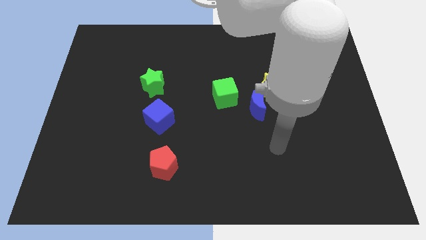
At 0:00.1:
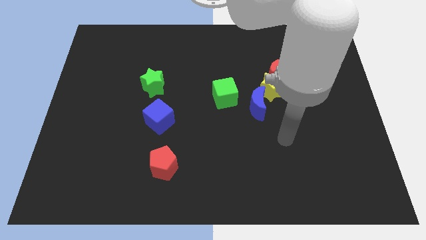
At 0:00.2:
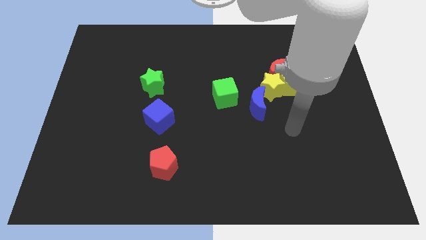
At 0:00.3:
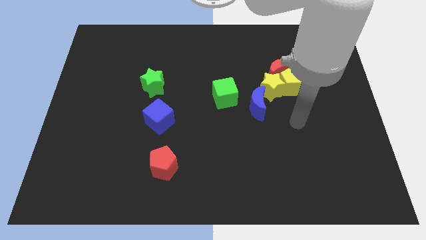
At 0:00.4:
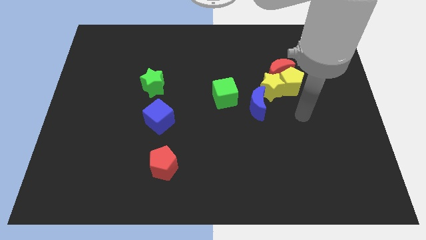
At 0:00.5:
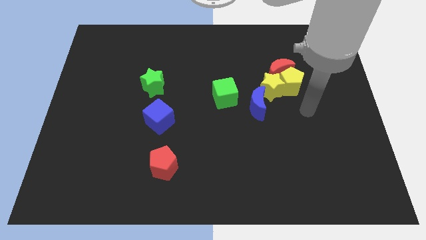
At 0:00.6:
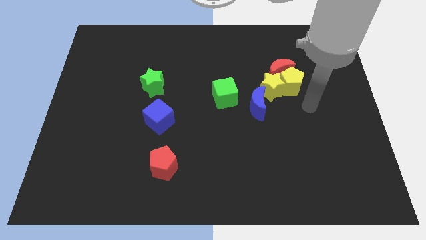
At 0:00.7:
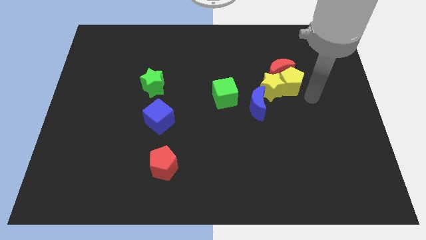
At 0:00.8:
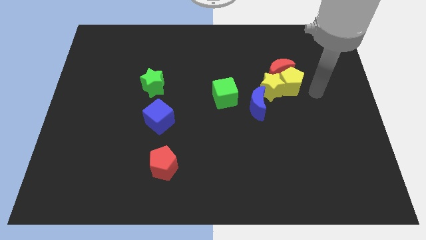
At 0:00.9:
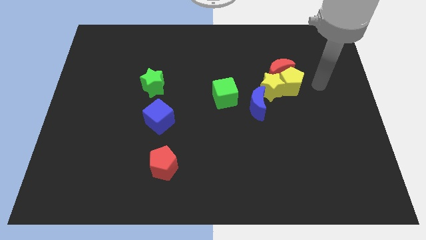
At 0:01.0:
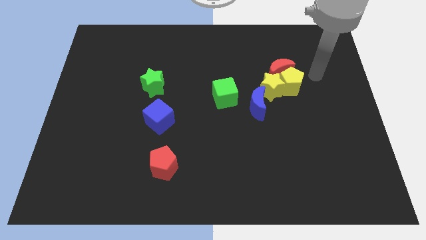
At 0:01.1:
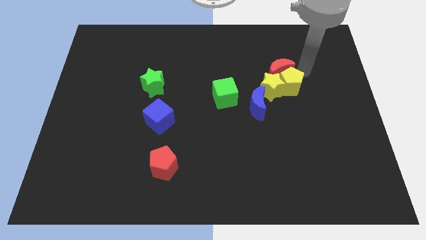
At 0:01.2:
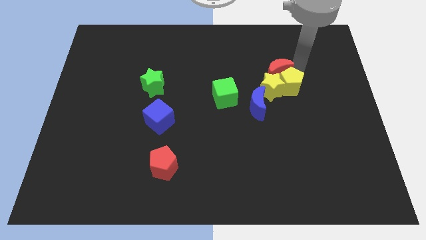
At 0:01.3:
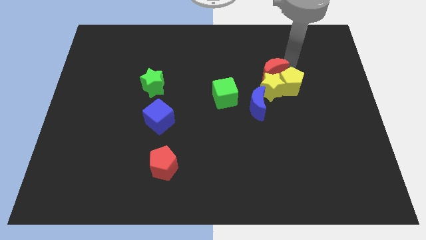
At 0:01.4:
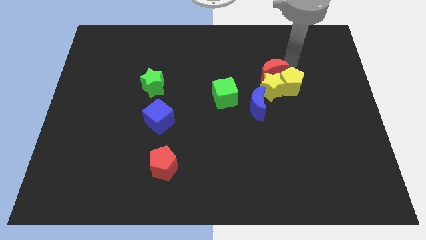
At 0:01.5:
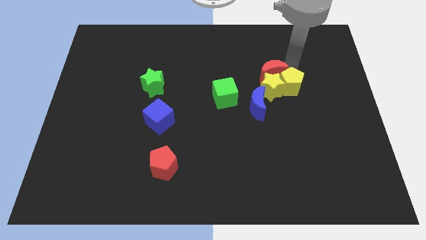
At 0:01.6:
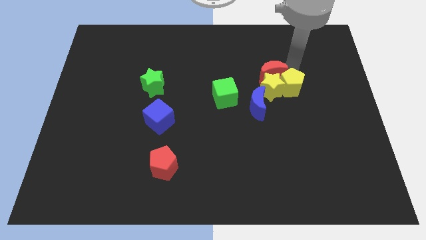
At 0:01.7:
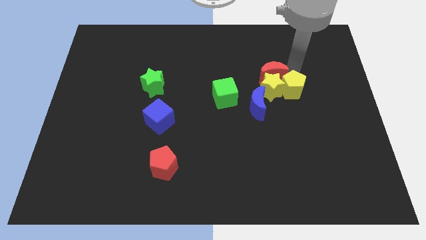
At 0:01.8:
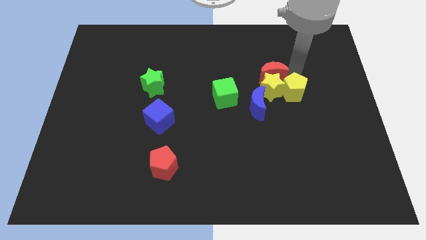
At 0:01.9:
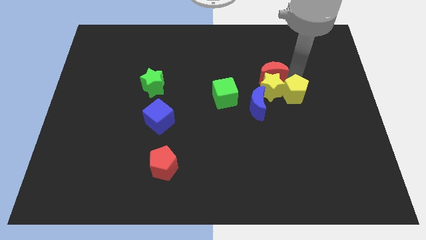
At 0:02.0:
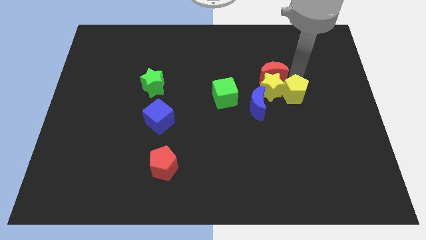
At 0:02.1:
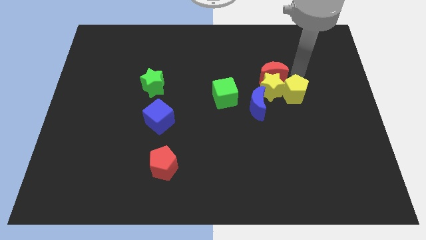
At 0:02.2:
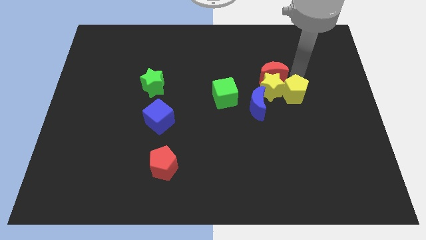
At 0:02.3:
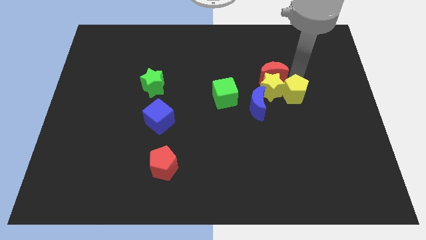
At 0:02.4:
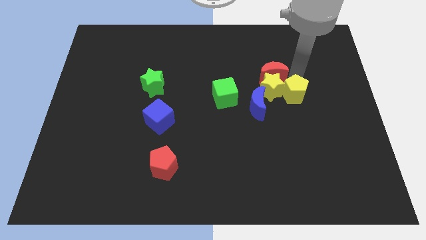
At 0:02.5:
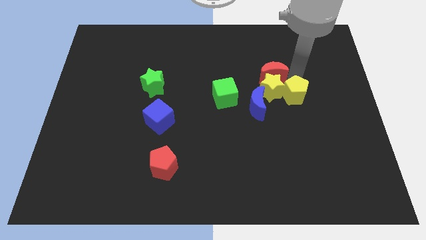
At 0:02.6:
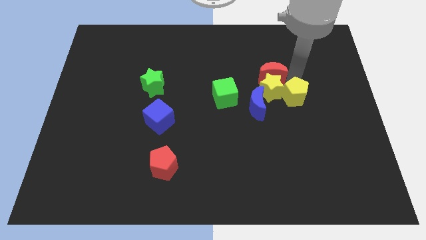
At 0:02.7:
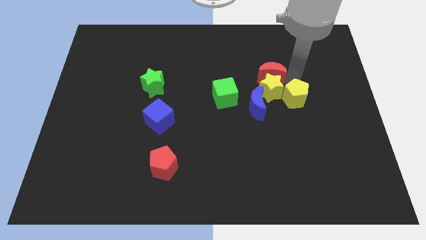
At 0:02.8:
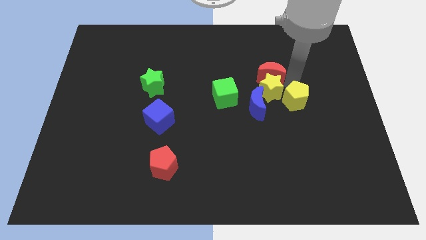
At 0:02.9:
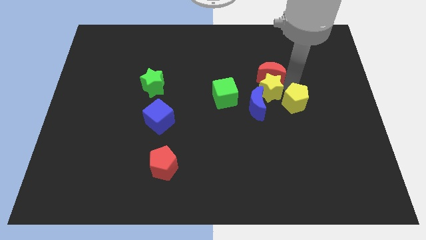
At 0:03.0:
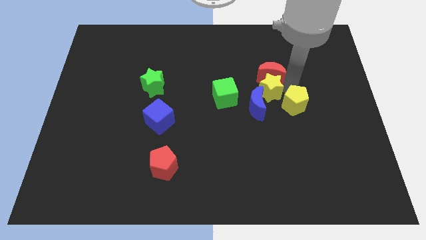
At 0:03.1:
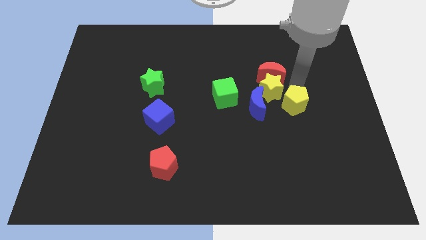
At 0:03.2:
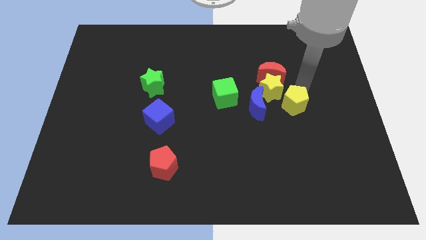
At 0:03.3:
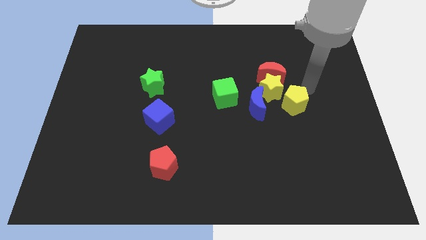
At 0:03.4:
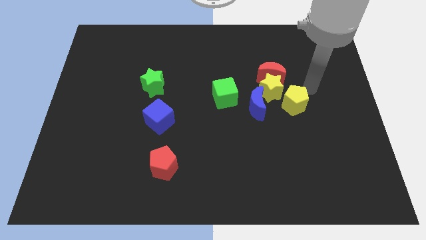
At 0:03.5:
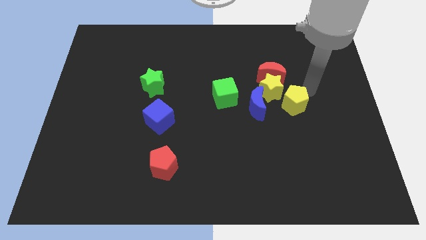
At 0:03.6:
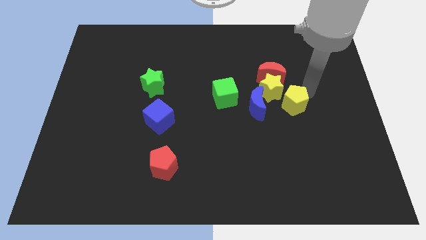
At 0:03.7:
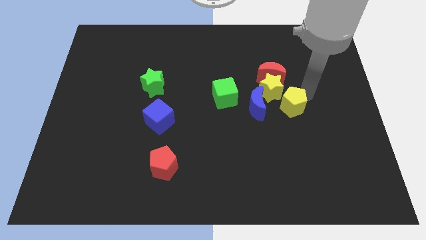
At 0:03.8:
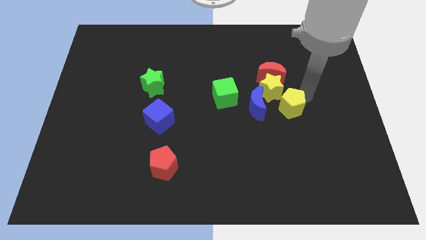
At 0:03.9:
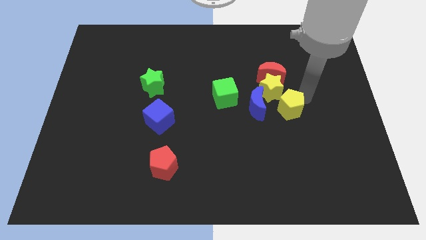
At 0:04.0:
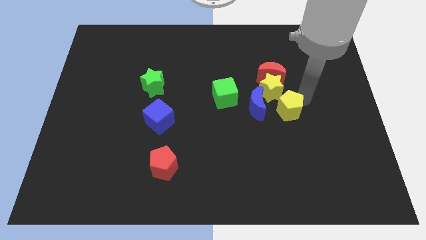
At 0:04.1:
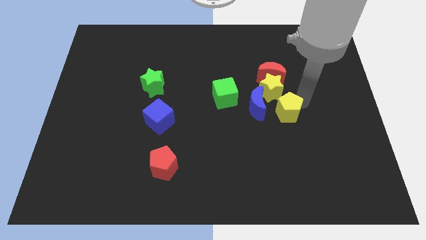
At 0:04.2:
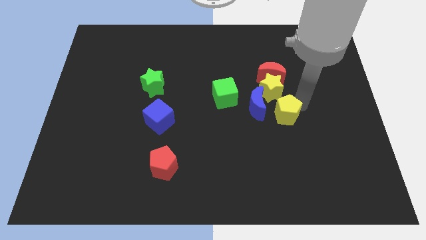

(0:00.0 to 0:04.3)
push the yellow pentagon diagonally down and left slightly

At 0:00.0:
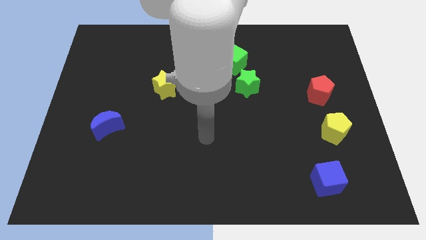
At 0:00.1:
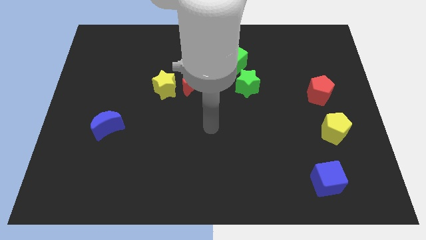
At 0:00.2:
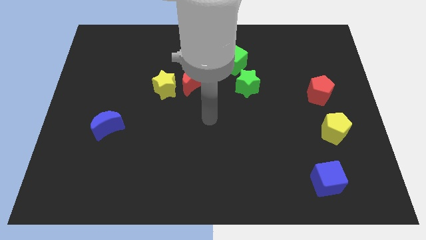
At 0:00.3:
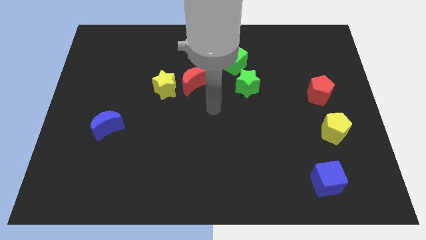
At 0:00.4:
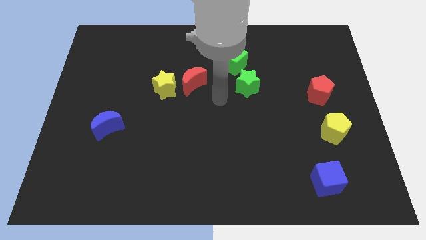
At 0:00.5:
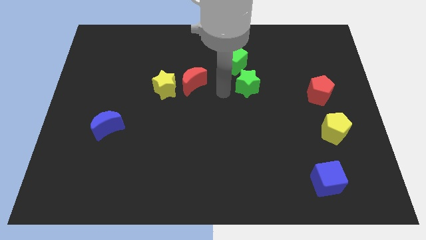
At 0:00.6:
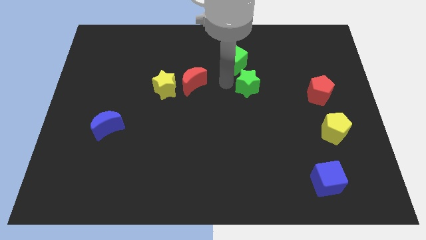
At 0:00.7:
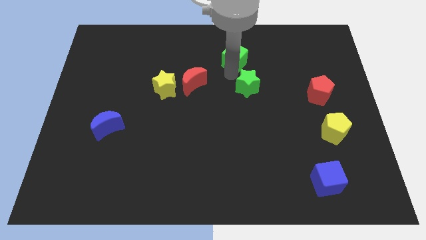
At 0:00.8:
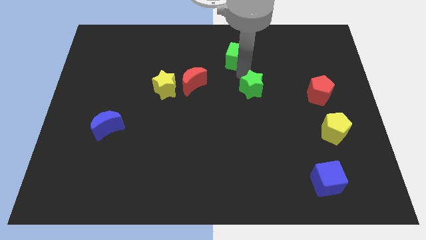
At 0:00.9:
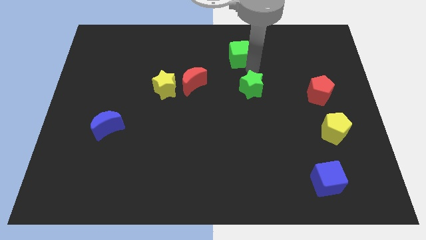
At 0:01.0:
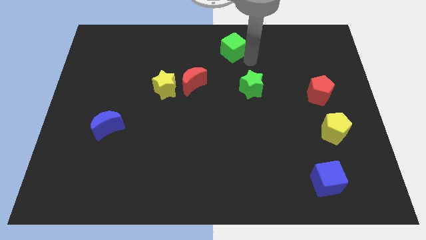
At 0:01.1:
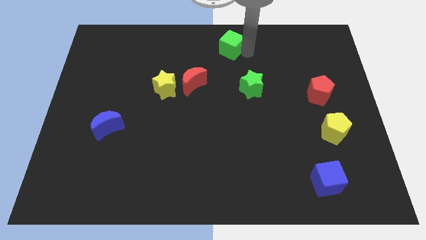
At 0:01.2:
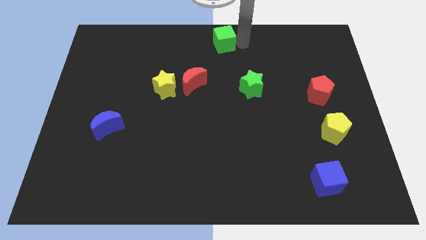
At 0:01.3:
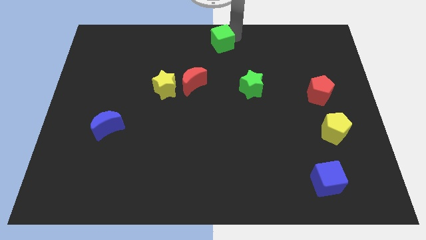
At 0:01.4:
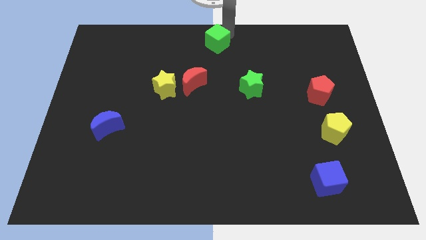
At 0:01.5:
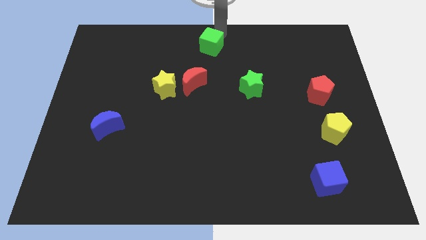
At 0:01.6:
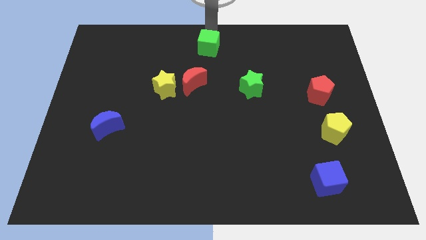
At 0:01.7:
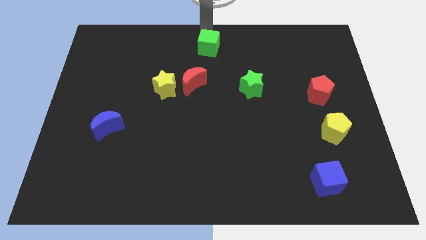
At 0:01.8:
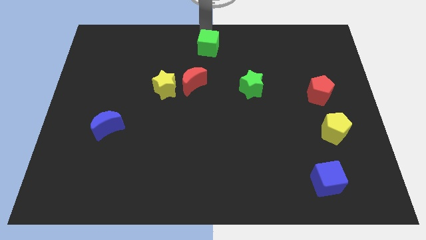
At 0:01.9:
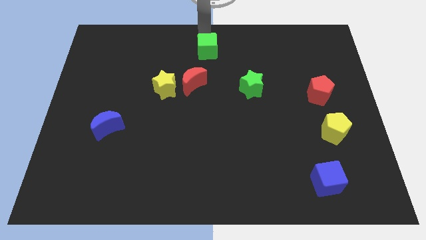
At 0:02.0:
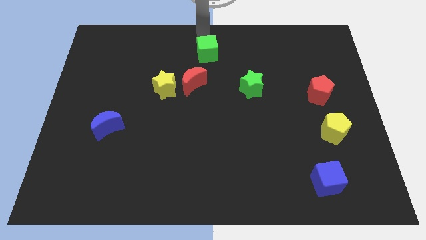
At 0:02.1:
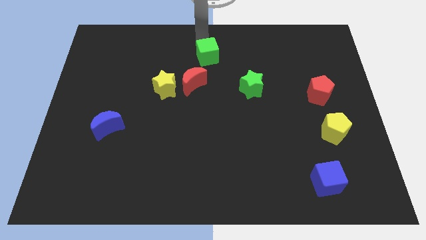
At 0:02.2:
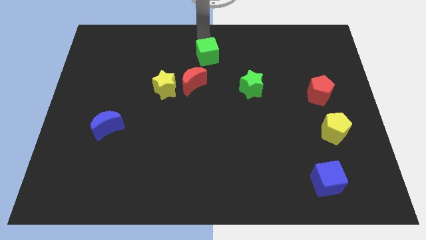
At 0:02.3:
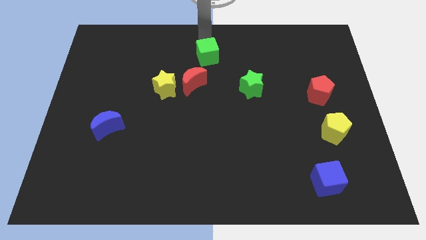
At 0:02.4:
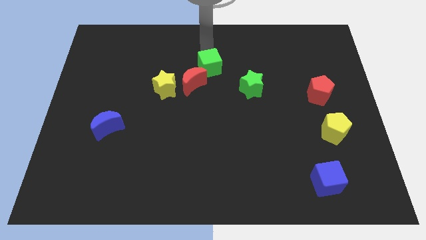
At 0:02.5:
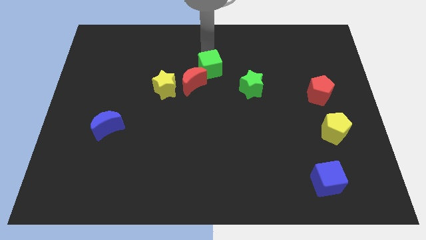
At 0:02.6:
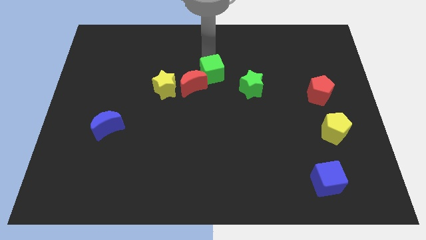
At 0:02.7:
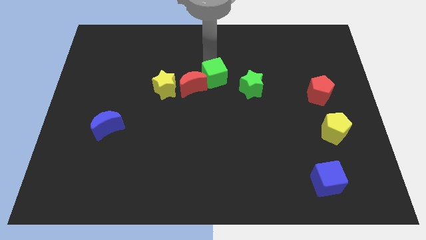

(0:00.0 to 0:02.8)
push the green cube downwards and left diagonally a bit

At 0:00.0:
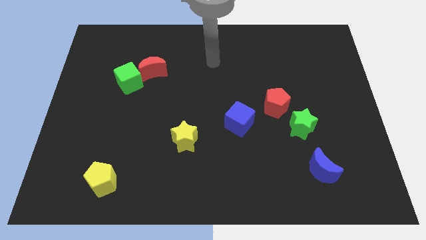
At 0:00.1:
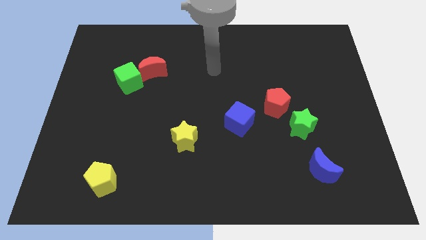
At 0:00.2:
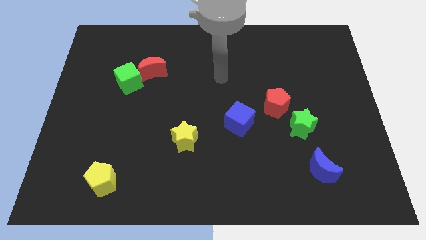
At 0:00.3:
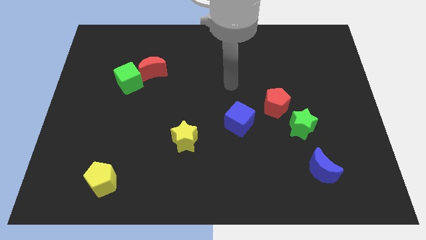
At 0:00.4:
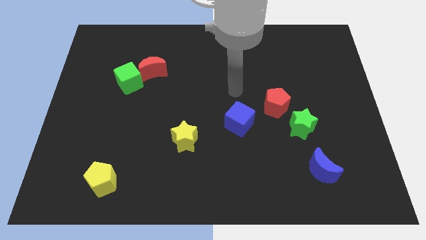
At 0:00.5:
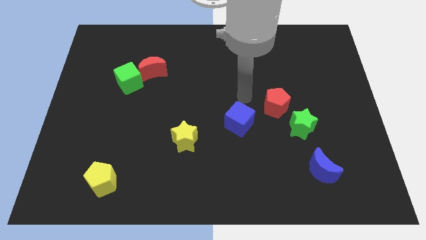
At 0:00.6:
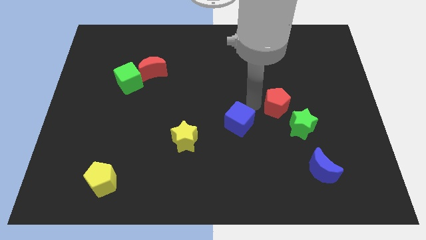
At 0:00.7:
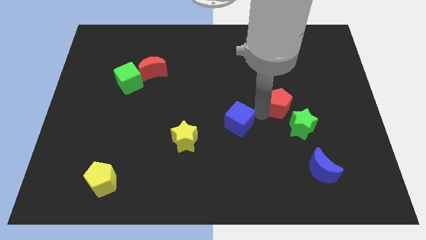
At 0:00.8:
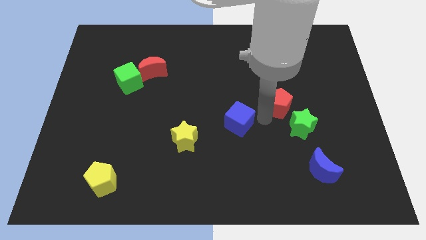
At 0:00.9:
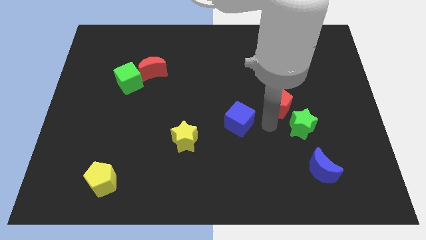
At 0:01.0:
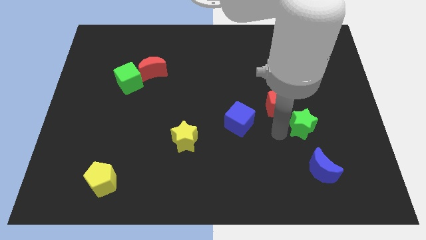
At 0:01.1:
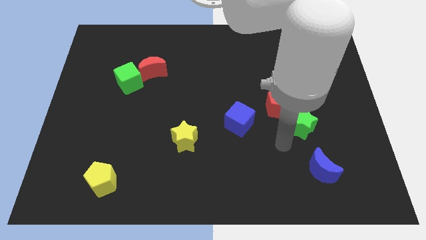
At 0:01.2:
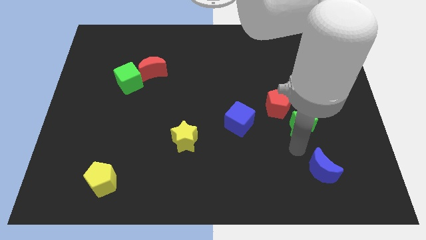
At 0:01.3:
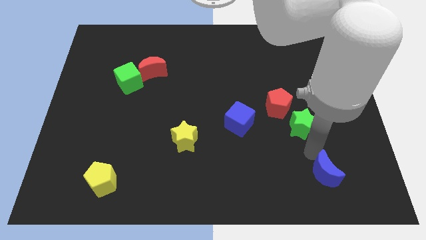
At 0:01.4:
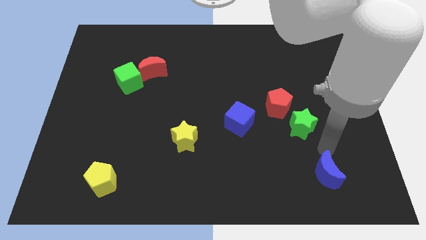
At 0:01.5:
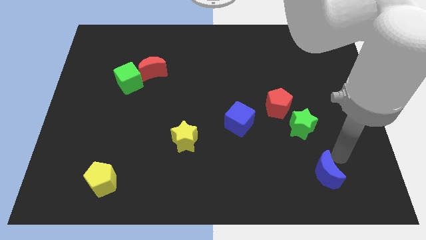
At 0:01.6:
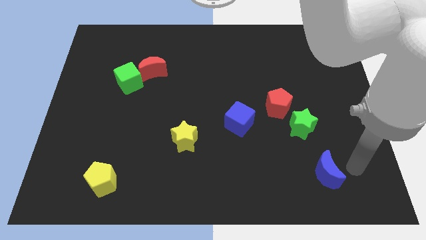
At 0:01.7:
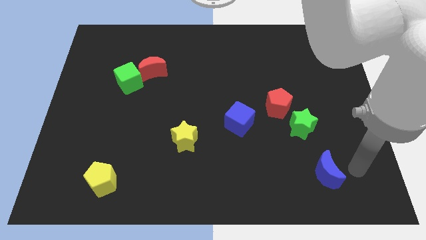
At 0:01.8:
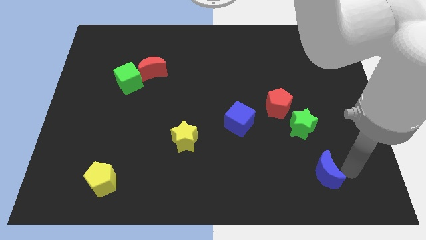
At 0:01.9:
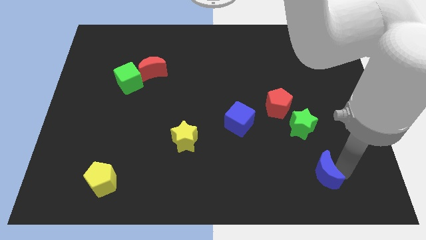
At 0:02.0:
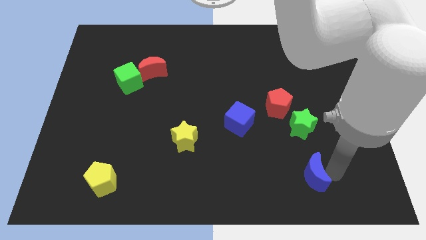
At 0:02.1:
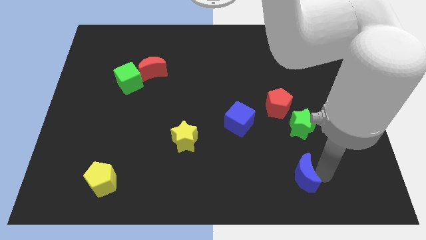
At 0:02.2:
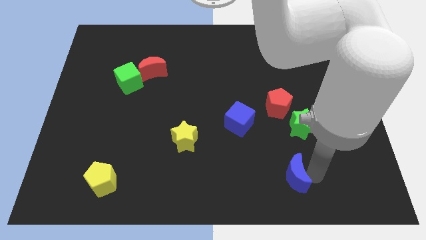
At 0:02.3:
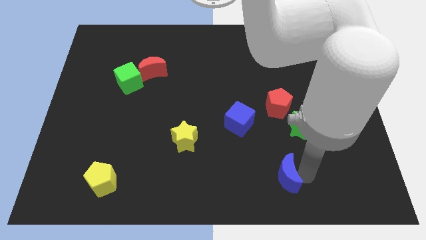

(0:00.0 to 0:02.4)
slightly slide the blue moon to the left
